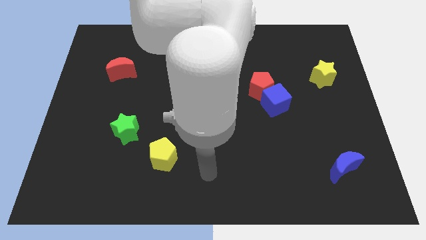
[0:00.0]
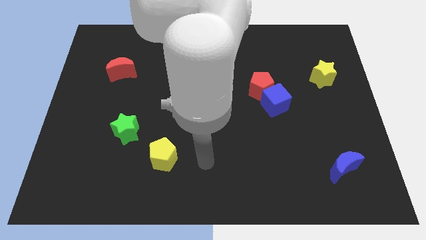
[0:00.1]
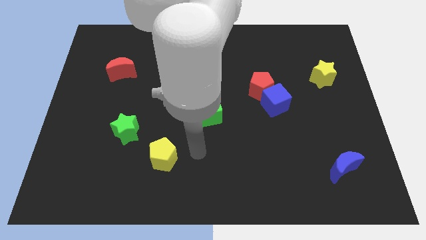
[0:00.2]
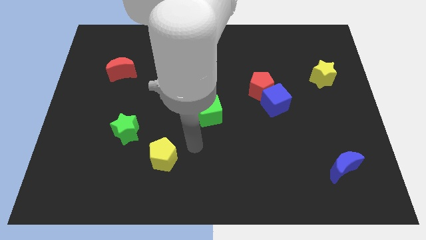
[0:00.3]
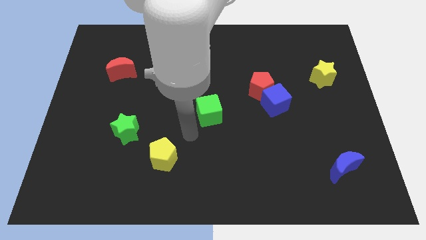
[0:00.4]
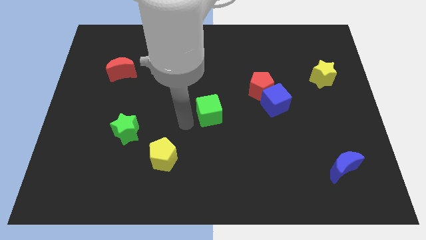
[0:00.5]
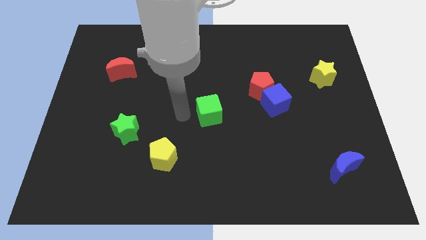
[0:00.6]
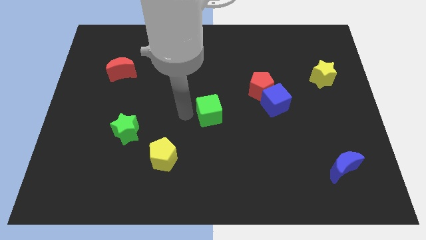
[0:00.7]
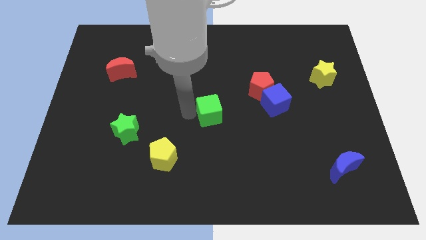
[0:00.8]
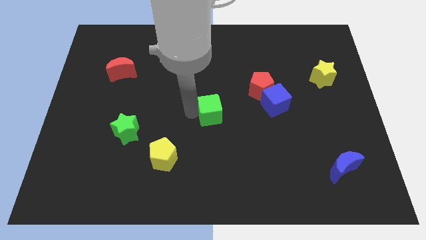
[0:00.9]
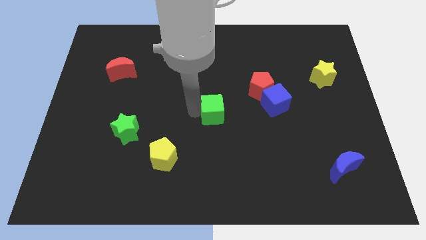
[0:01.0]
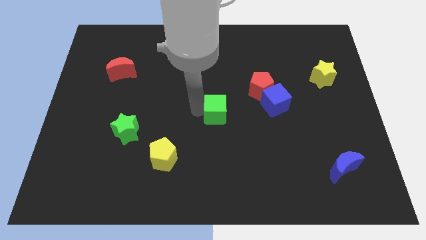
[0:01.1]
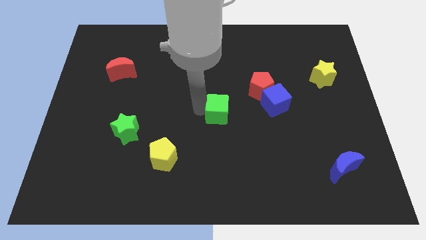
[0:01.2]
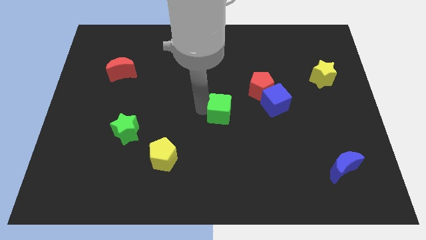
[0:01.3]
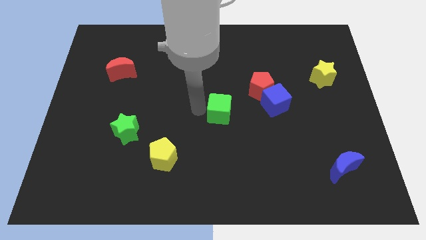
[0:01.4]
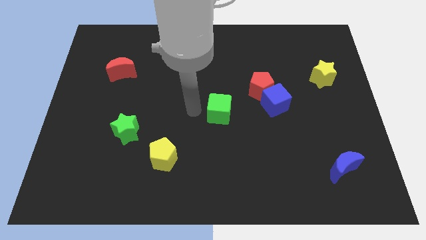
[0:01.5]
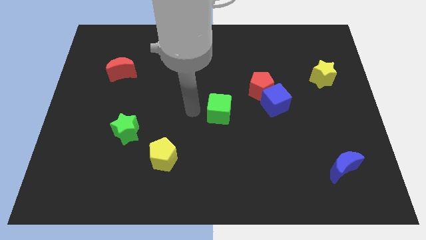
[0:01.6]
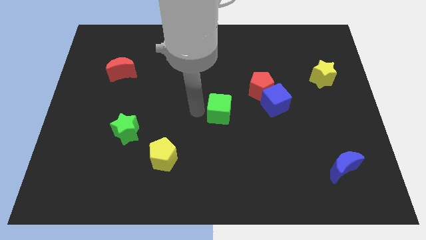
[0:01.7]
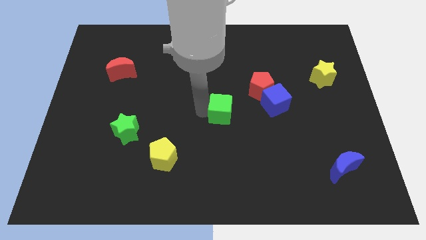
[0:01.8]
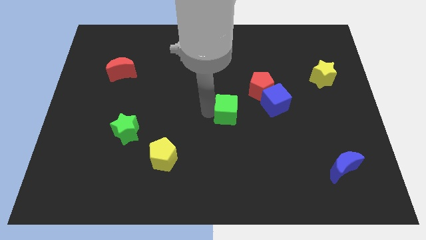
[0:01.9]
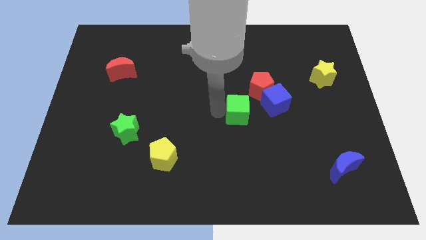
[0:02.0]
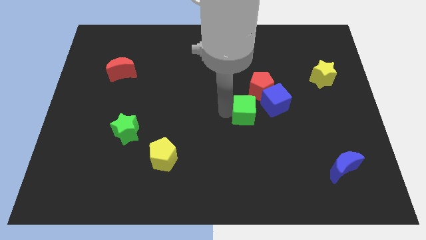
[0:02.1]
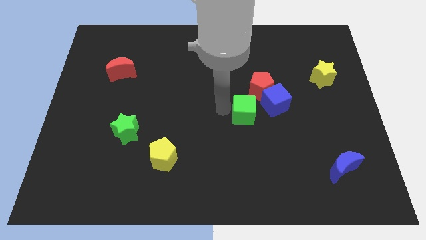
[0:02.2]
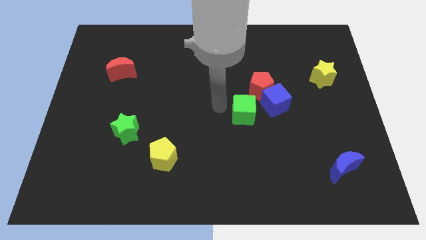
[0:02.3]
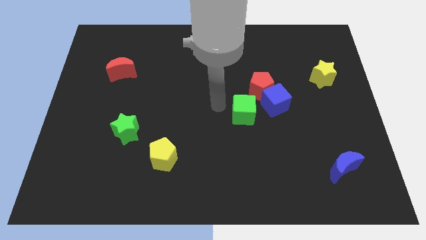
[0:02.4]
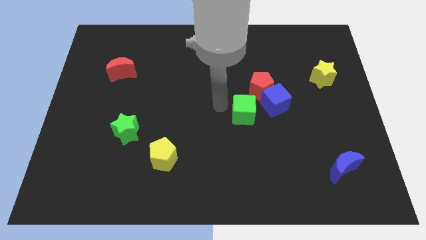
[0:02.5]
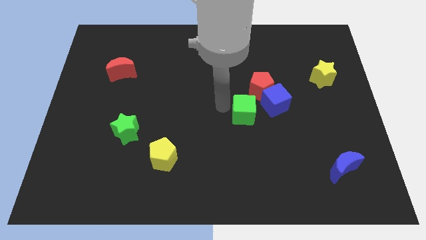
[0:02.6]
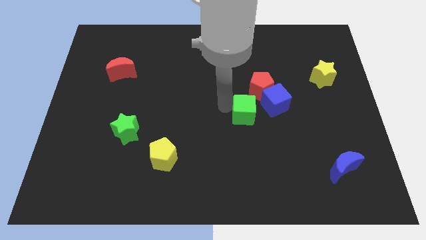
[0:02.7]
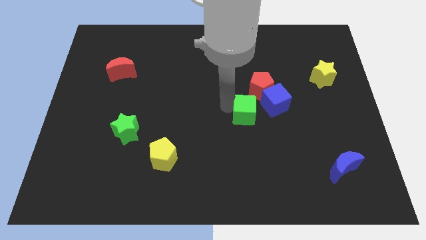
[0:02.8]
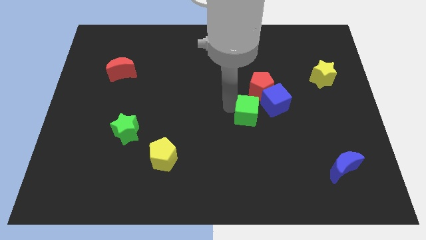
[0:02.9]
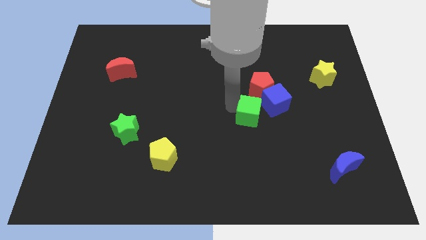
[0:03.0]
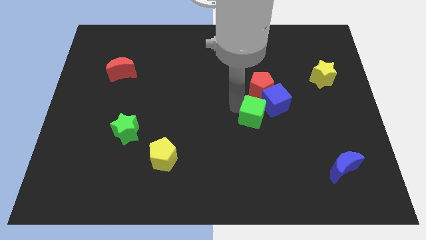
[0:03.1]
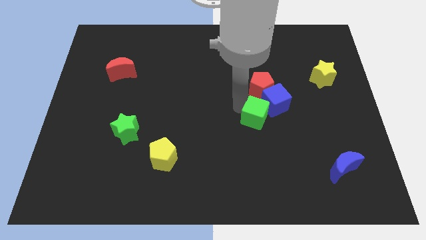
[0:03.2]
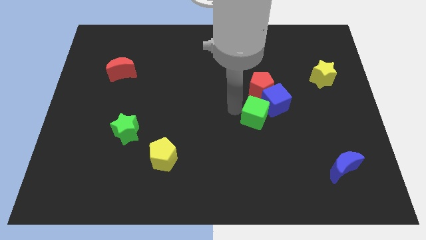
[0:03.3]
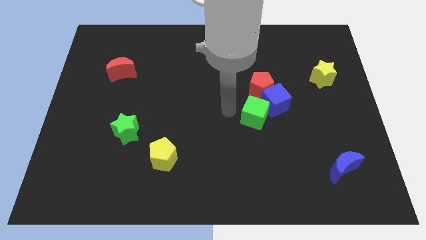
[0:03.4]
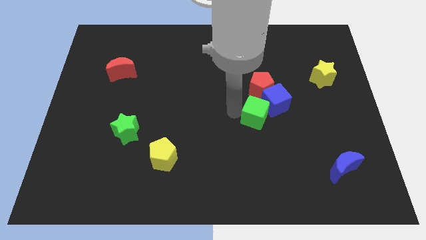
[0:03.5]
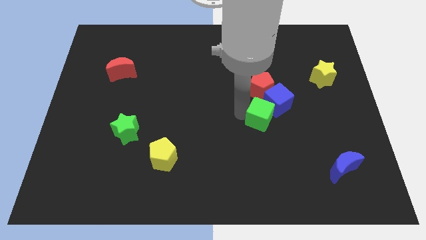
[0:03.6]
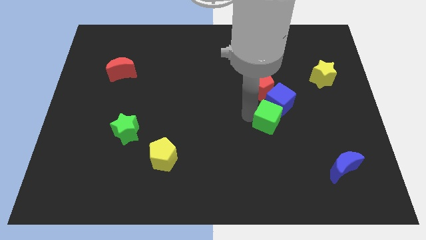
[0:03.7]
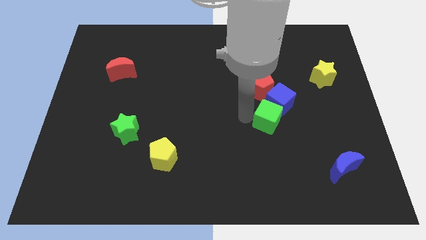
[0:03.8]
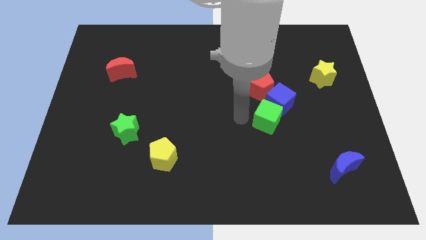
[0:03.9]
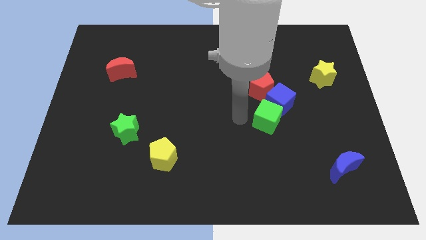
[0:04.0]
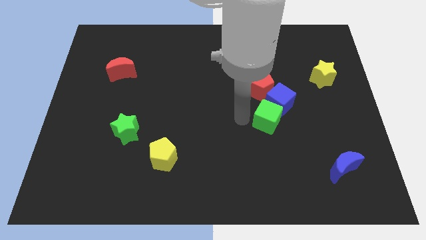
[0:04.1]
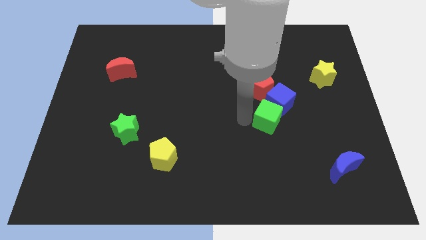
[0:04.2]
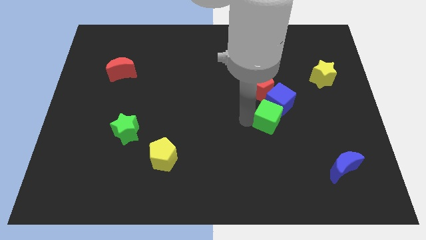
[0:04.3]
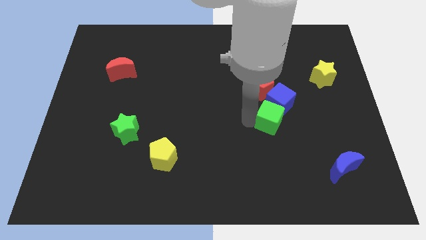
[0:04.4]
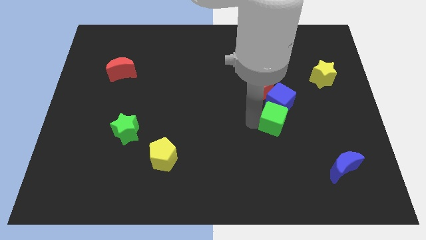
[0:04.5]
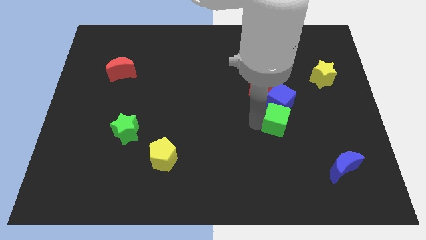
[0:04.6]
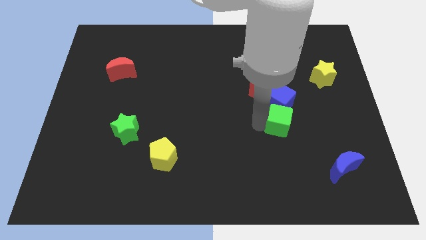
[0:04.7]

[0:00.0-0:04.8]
move the green cube to the bottom right side of the blue cube

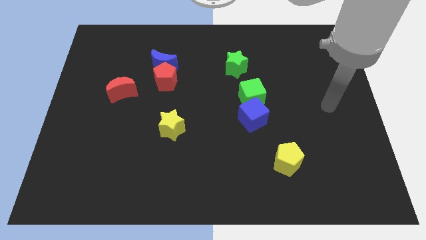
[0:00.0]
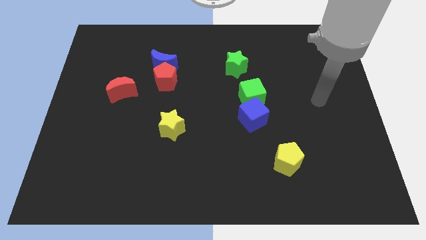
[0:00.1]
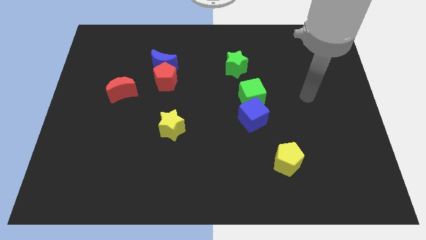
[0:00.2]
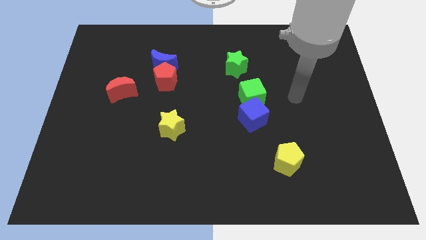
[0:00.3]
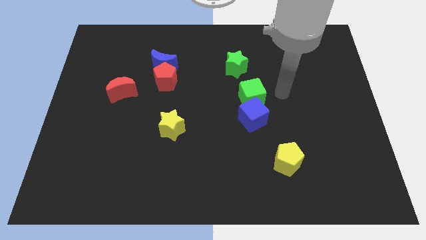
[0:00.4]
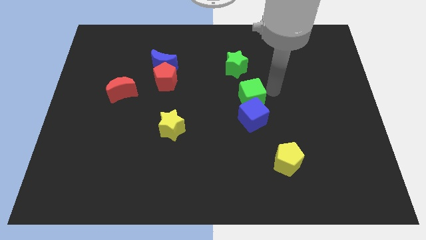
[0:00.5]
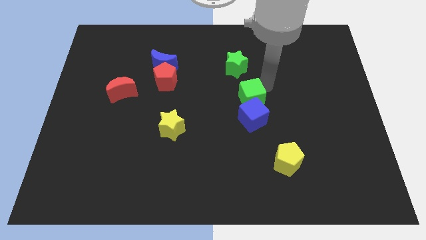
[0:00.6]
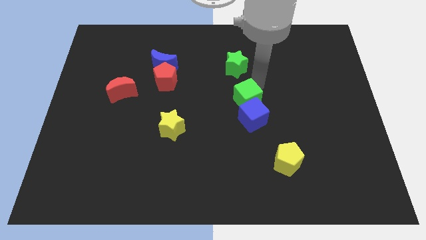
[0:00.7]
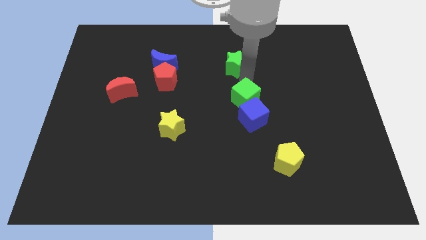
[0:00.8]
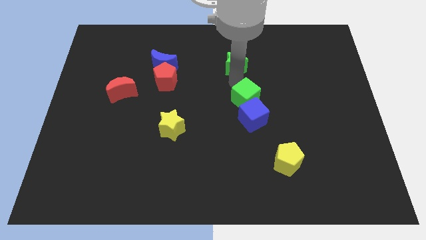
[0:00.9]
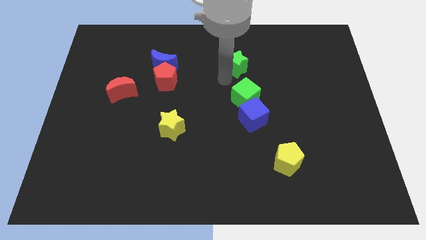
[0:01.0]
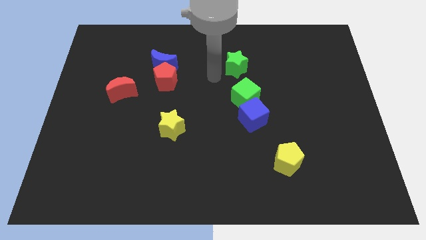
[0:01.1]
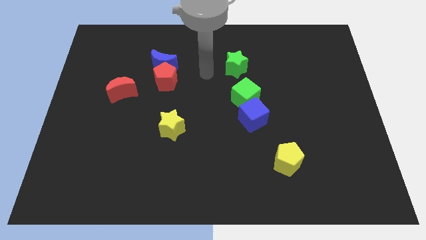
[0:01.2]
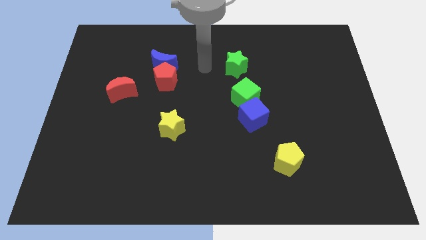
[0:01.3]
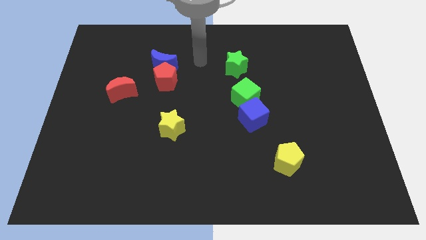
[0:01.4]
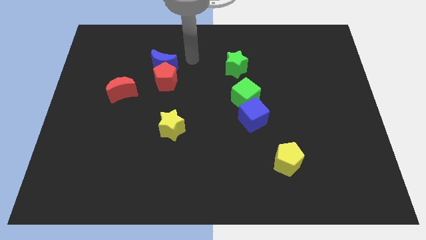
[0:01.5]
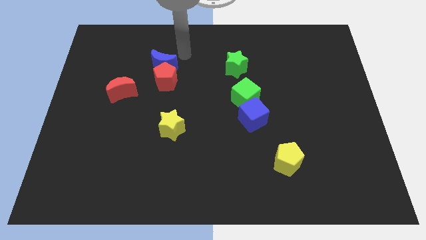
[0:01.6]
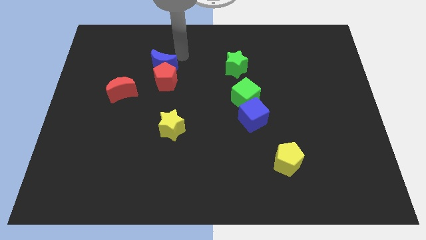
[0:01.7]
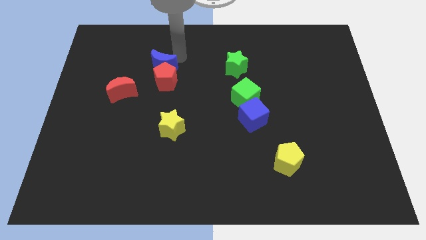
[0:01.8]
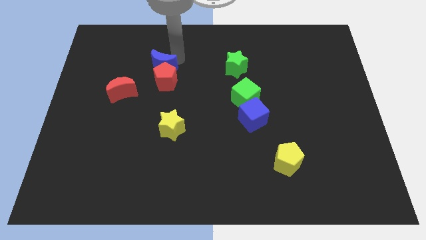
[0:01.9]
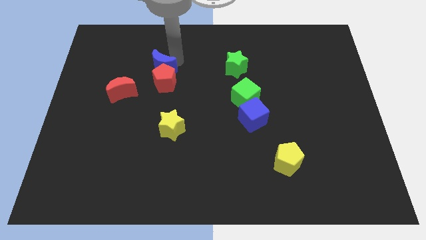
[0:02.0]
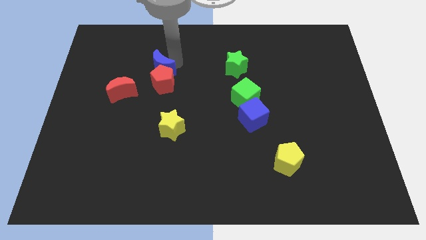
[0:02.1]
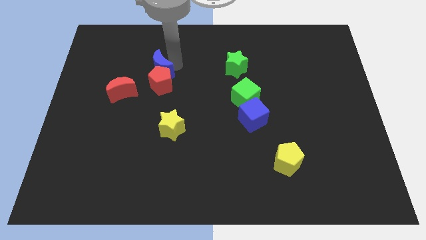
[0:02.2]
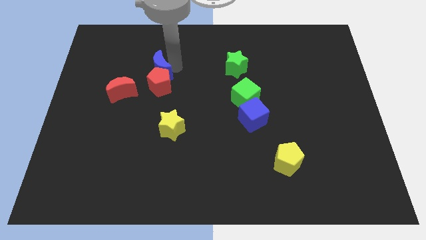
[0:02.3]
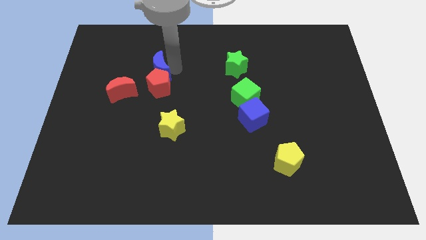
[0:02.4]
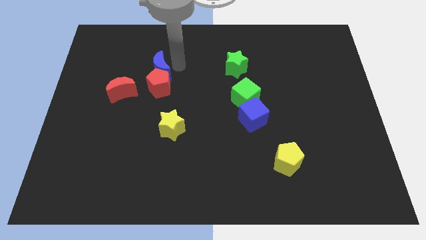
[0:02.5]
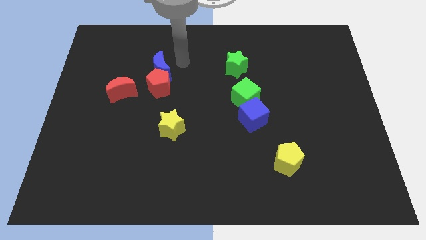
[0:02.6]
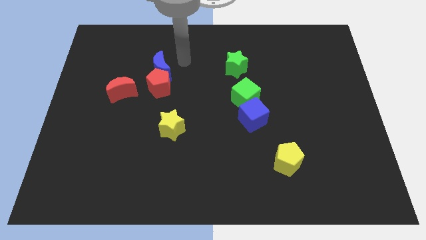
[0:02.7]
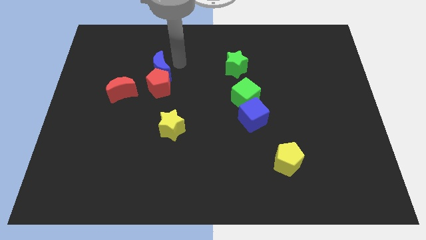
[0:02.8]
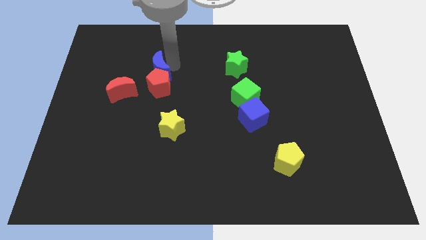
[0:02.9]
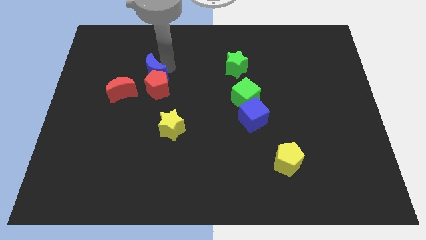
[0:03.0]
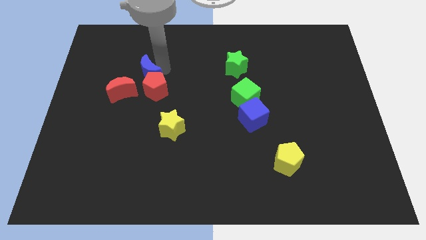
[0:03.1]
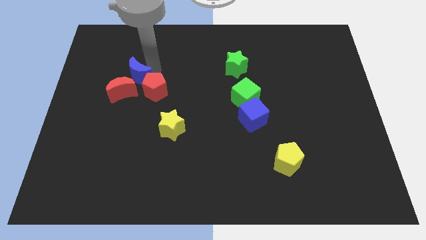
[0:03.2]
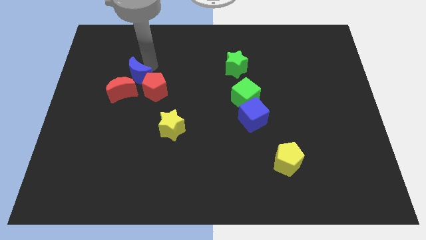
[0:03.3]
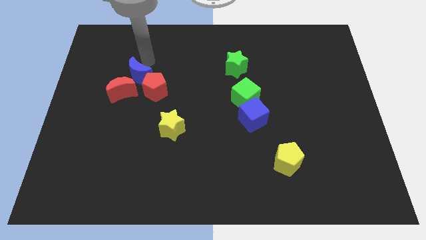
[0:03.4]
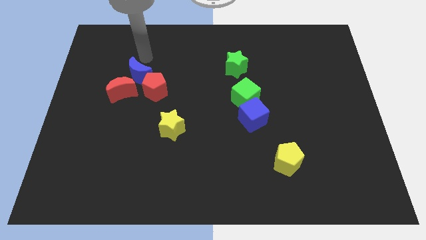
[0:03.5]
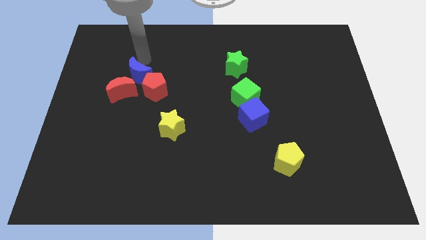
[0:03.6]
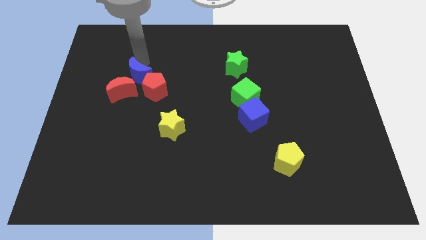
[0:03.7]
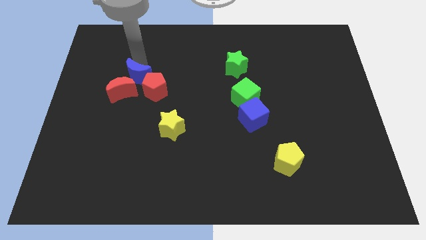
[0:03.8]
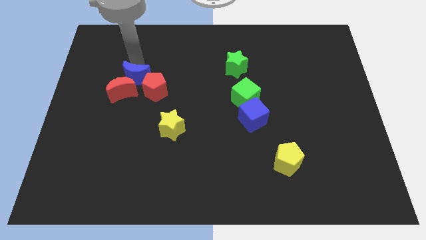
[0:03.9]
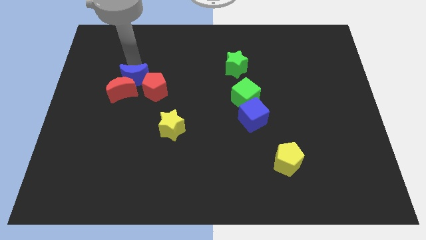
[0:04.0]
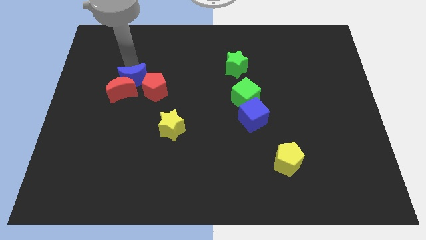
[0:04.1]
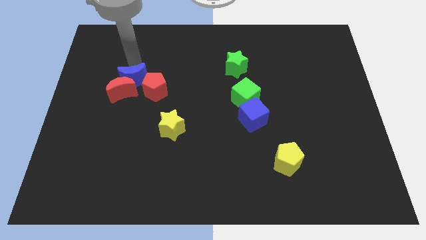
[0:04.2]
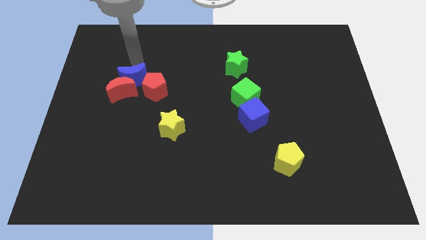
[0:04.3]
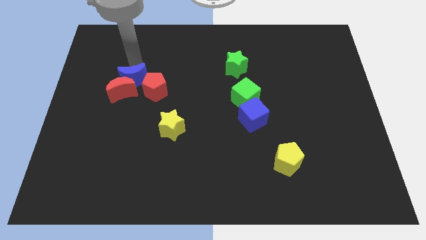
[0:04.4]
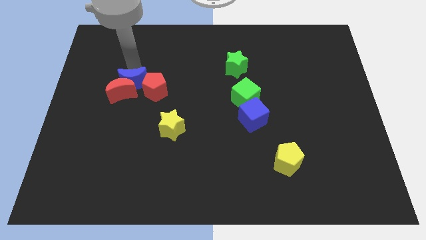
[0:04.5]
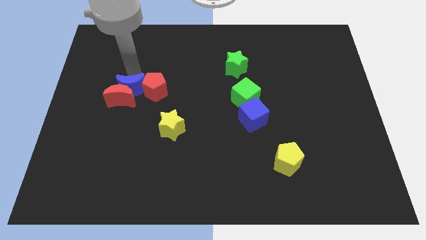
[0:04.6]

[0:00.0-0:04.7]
push the blue moon to the bottom left of the red pentagon
